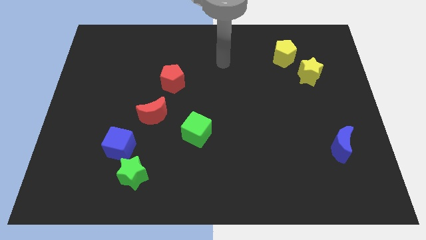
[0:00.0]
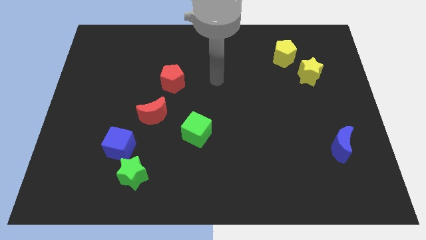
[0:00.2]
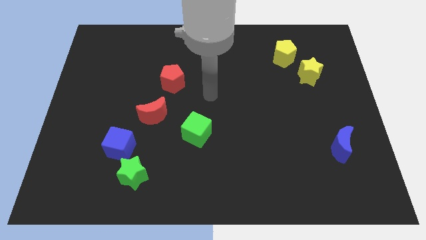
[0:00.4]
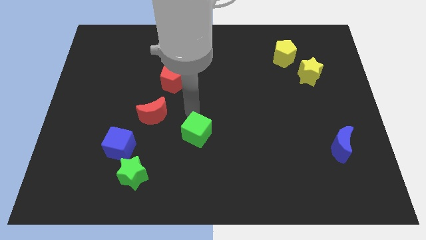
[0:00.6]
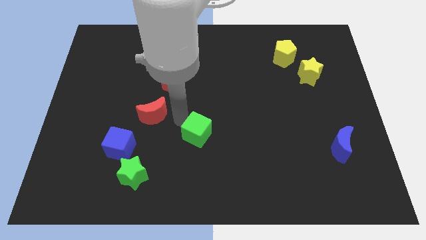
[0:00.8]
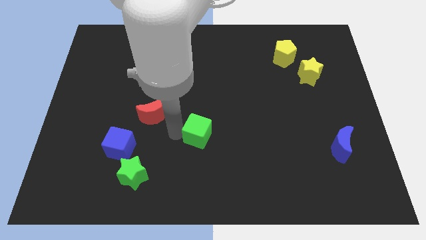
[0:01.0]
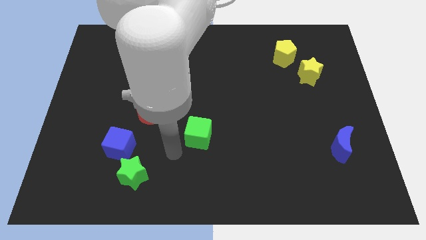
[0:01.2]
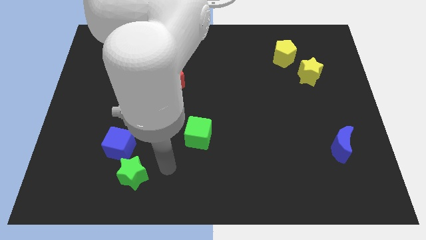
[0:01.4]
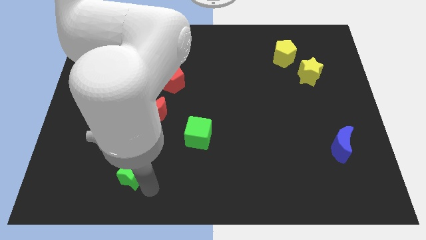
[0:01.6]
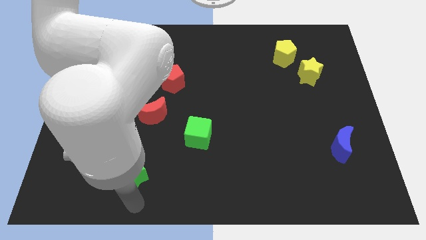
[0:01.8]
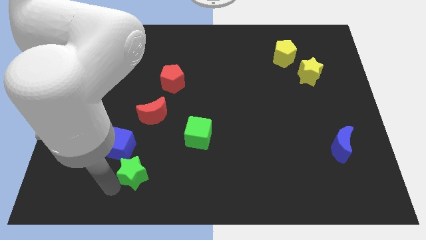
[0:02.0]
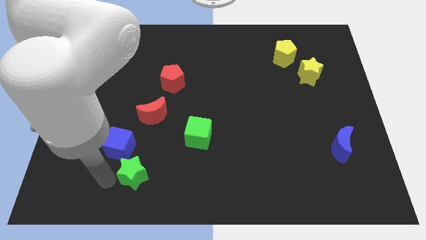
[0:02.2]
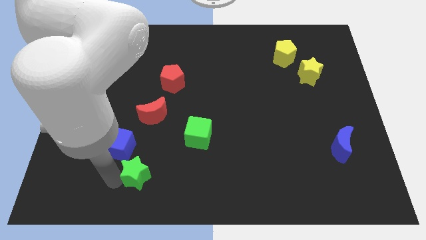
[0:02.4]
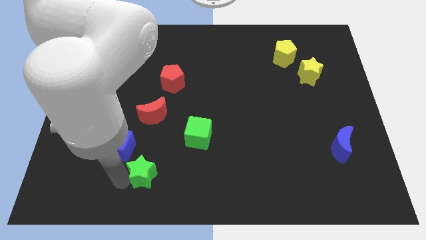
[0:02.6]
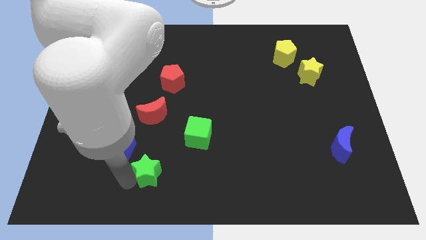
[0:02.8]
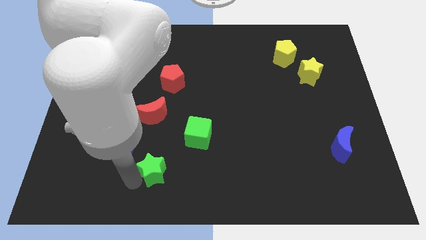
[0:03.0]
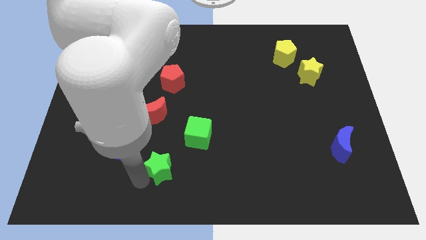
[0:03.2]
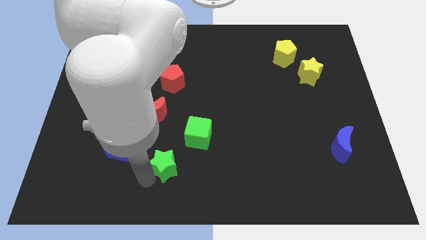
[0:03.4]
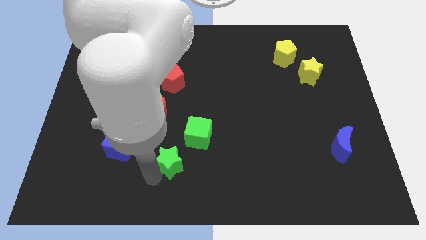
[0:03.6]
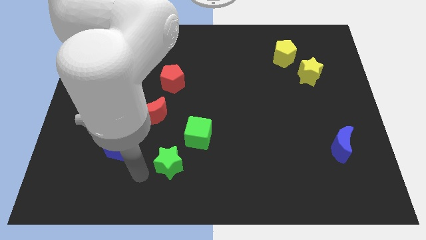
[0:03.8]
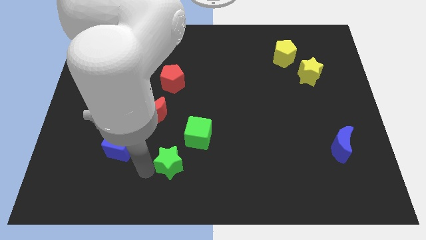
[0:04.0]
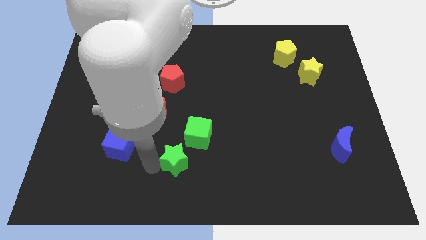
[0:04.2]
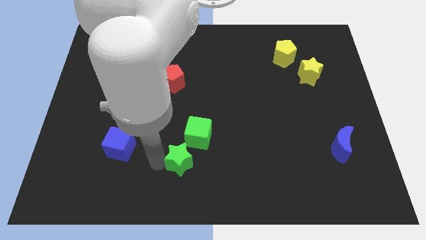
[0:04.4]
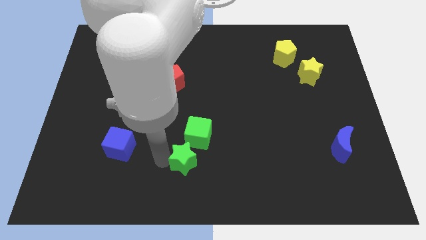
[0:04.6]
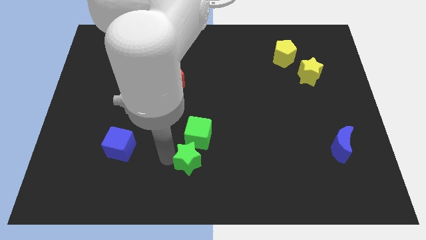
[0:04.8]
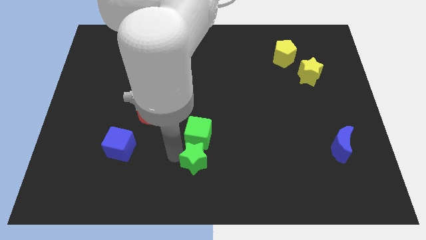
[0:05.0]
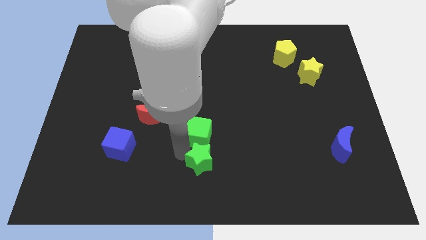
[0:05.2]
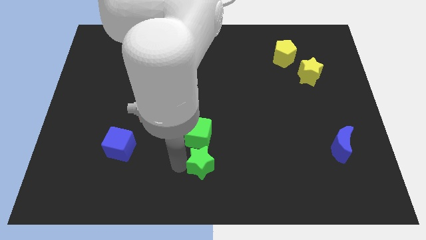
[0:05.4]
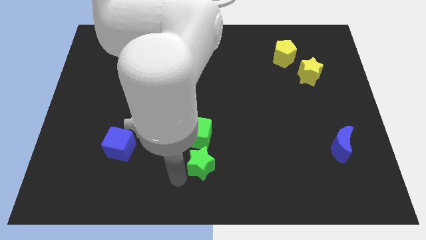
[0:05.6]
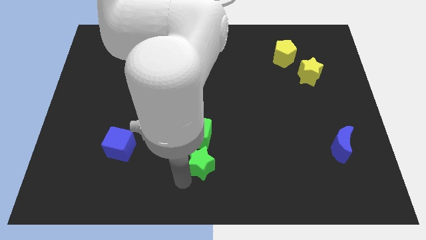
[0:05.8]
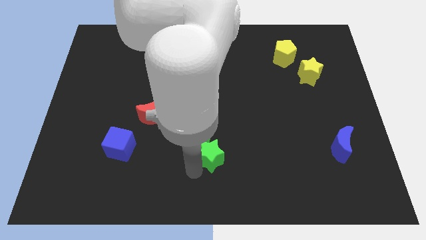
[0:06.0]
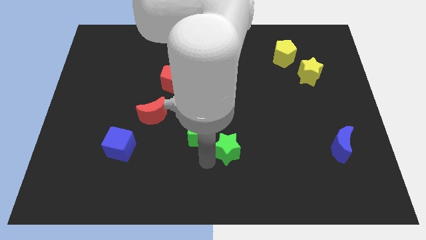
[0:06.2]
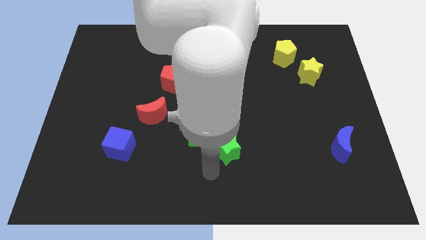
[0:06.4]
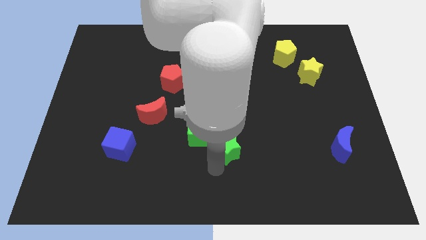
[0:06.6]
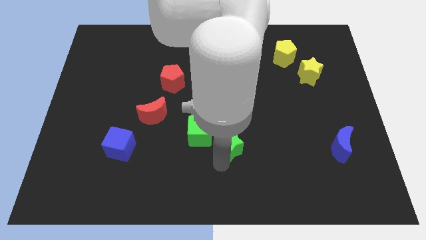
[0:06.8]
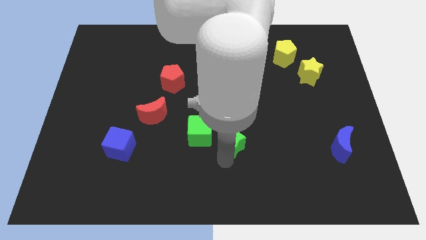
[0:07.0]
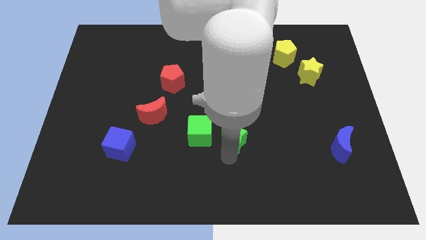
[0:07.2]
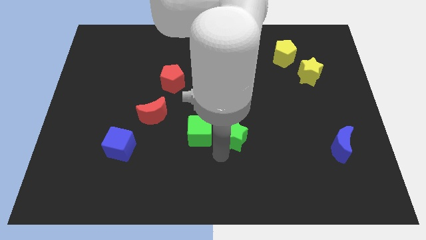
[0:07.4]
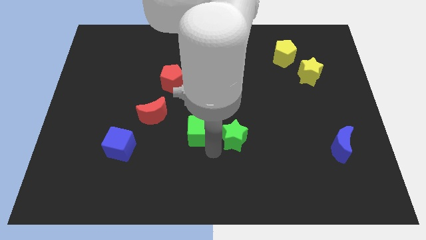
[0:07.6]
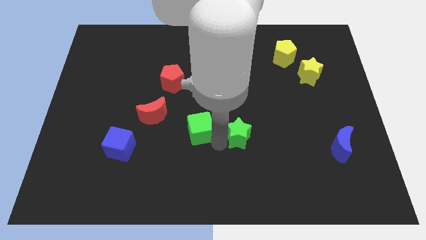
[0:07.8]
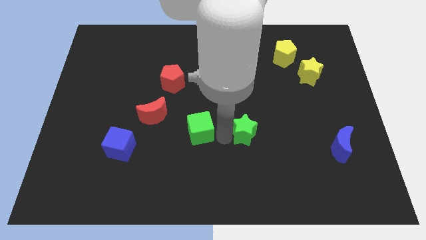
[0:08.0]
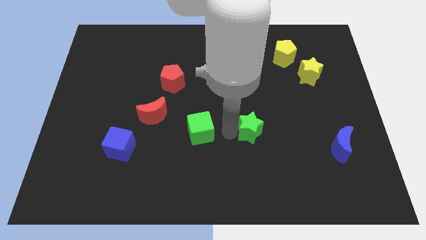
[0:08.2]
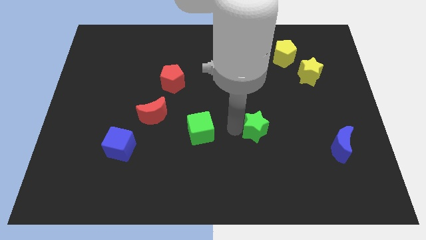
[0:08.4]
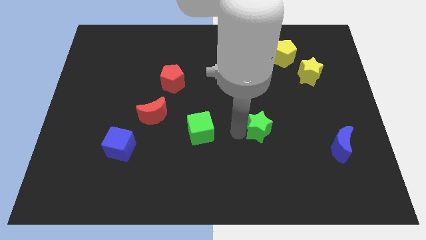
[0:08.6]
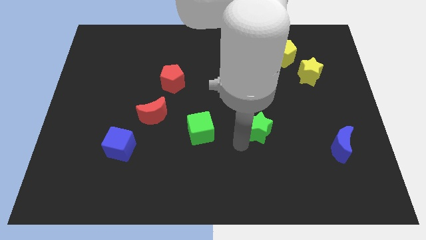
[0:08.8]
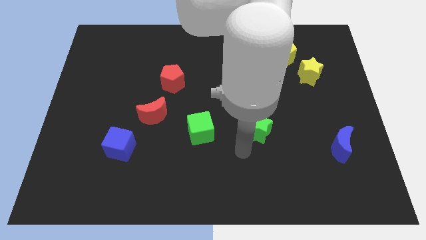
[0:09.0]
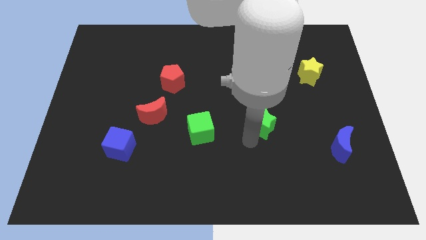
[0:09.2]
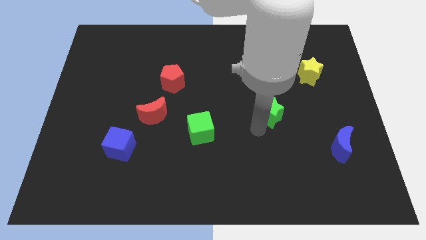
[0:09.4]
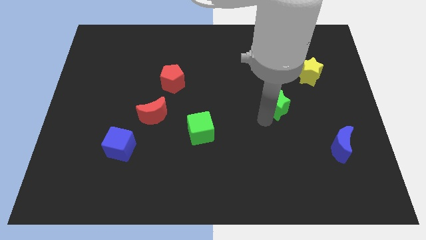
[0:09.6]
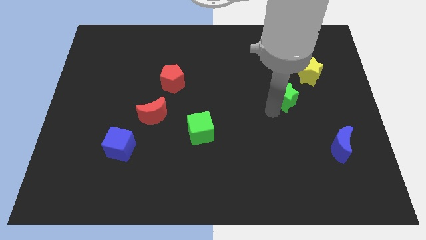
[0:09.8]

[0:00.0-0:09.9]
move the green star below the yellow pentagon

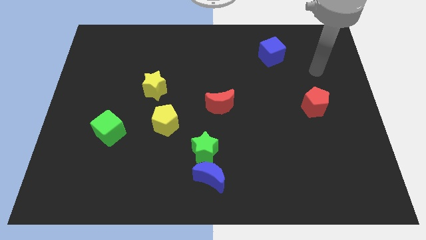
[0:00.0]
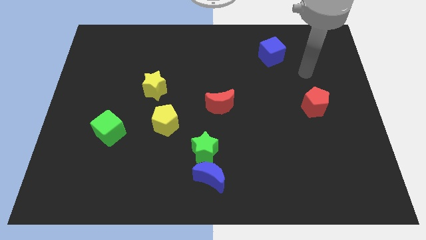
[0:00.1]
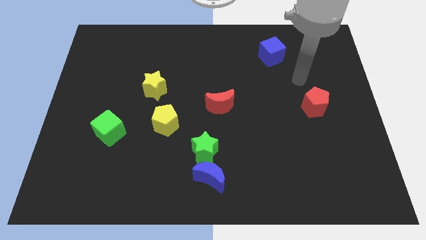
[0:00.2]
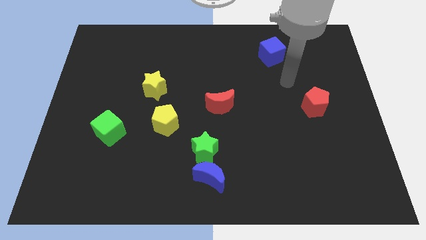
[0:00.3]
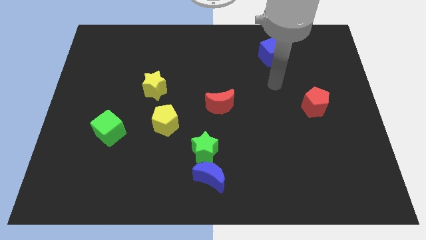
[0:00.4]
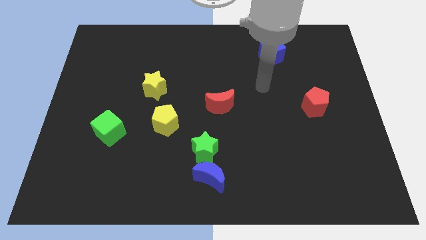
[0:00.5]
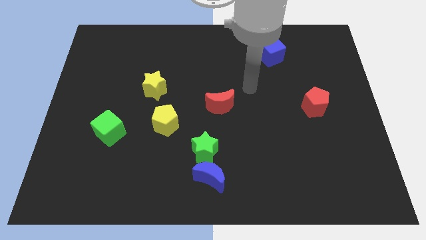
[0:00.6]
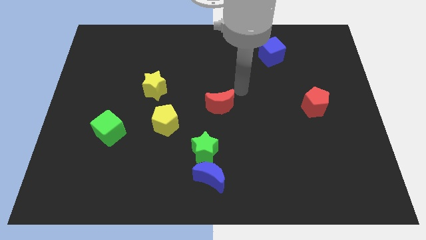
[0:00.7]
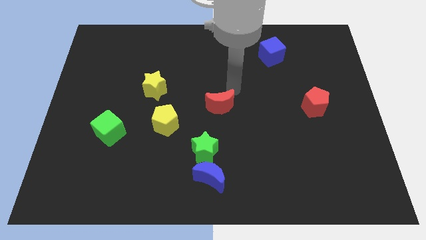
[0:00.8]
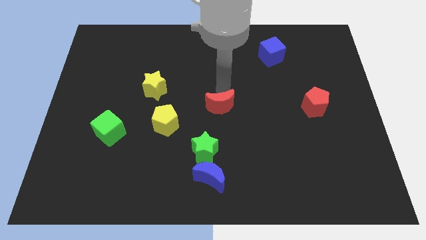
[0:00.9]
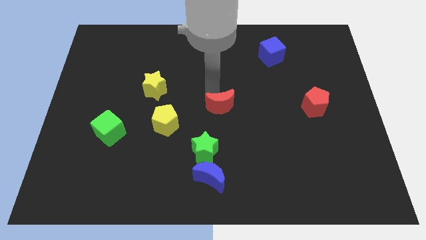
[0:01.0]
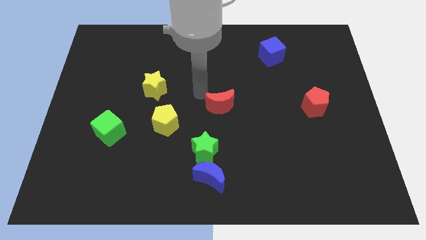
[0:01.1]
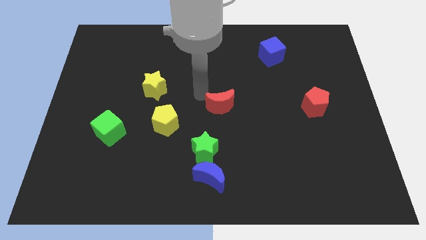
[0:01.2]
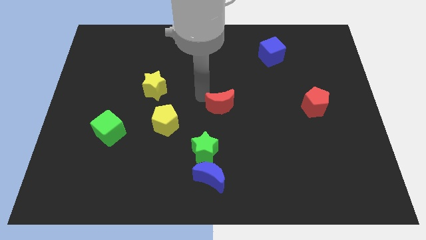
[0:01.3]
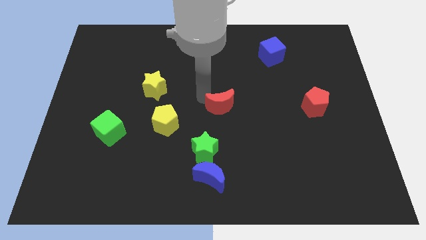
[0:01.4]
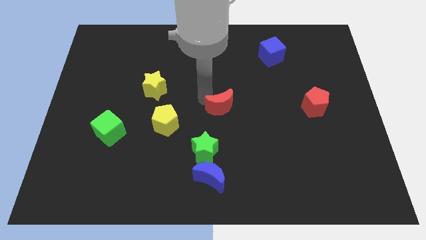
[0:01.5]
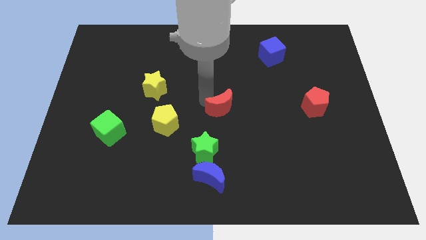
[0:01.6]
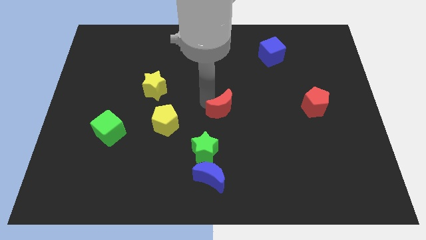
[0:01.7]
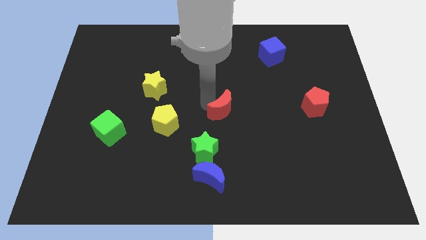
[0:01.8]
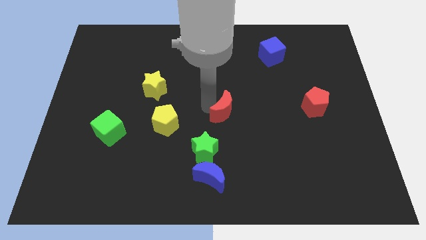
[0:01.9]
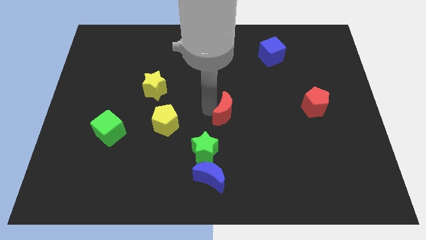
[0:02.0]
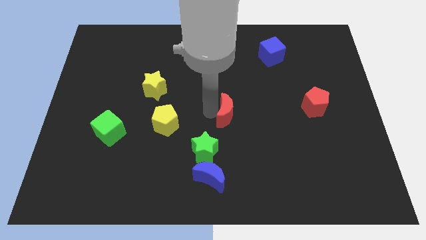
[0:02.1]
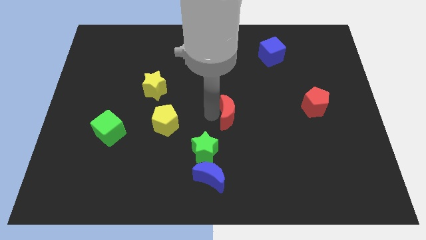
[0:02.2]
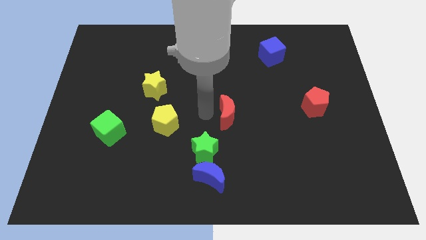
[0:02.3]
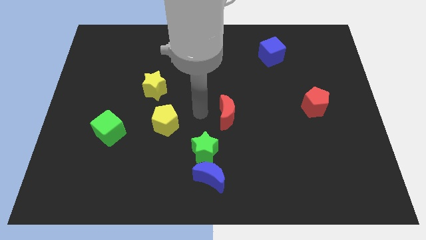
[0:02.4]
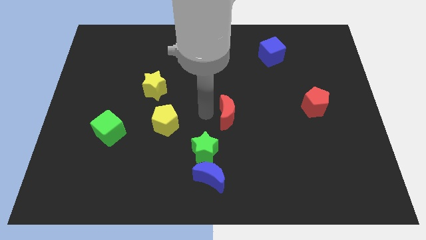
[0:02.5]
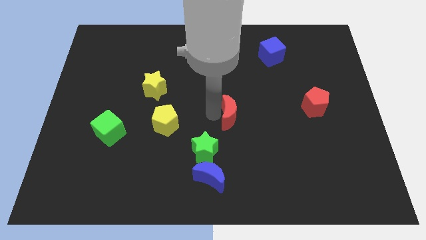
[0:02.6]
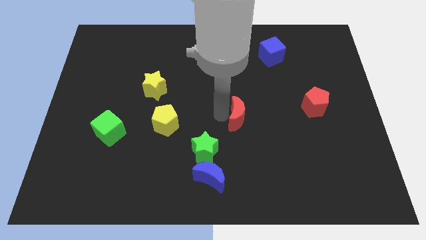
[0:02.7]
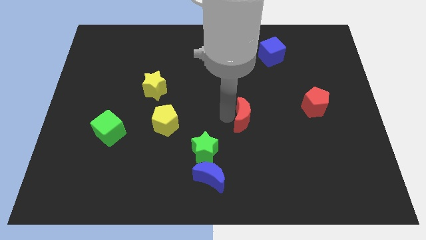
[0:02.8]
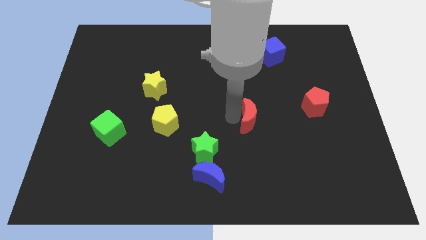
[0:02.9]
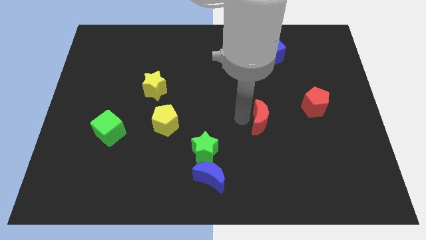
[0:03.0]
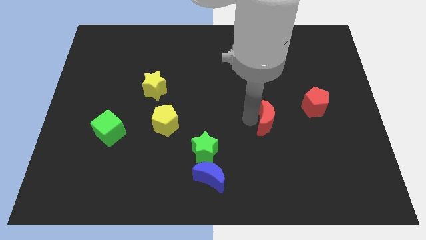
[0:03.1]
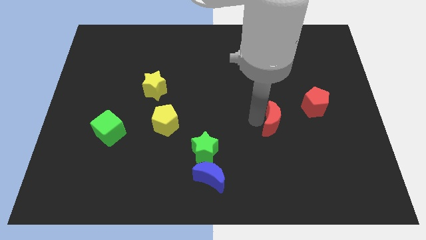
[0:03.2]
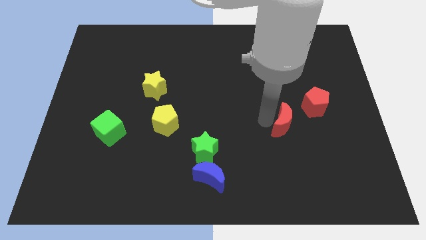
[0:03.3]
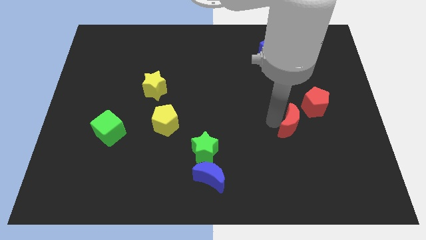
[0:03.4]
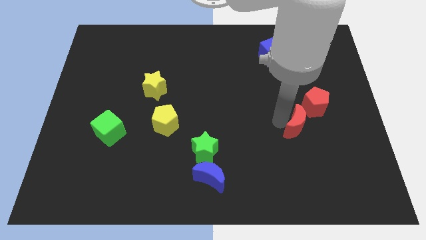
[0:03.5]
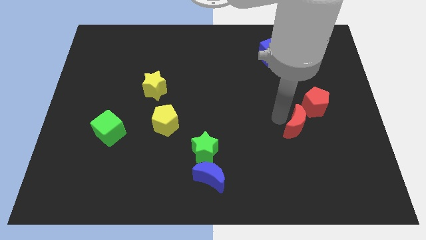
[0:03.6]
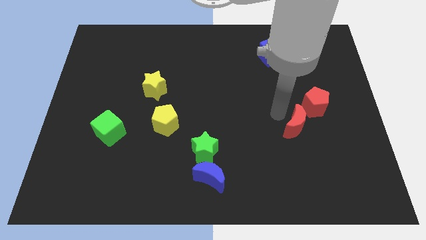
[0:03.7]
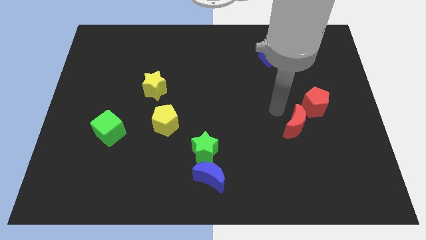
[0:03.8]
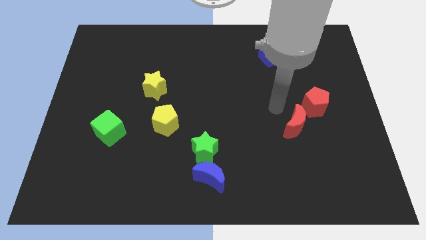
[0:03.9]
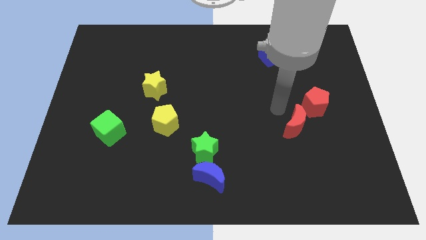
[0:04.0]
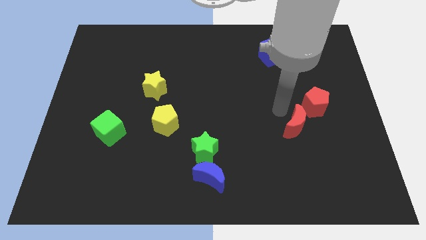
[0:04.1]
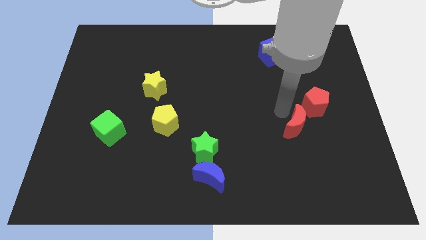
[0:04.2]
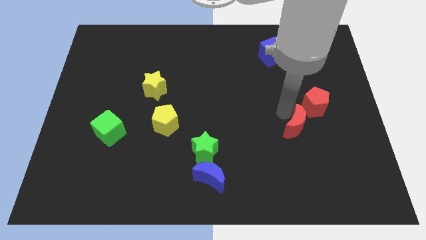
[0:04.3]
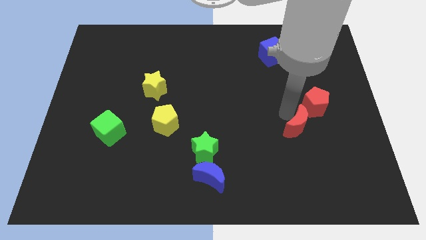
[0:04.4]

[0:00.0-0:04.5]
push the red moon to the bottom side of the red pentagon
